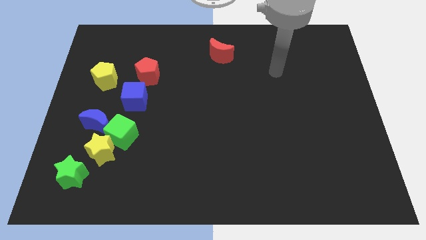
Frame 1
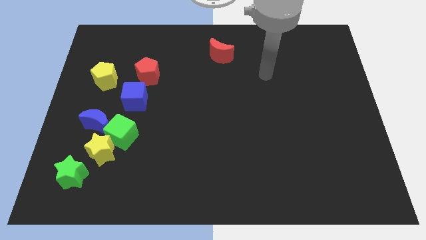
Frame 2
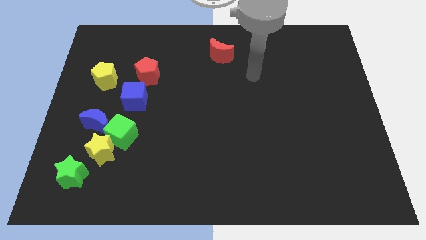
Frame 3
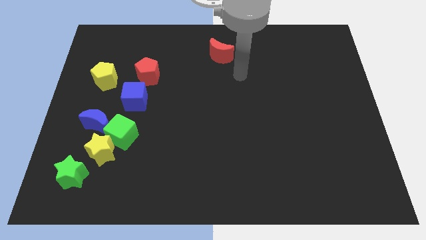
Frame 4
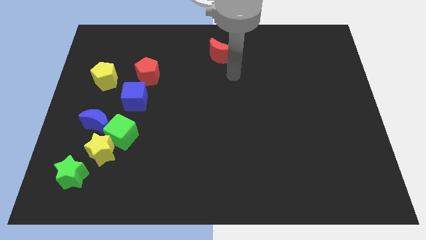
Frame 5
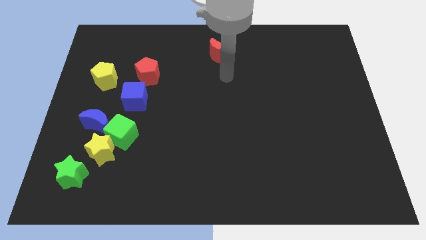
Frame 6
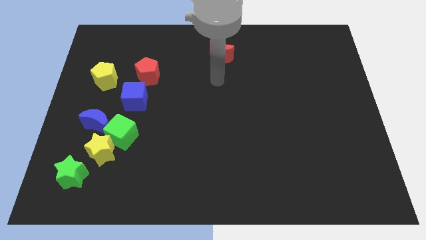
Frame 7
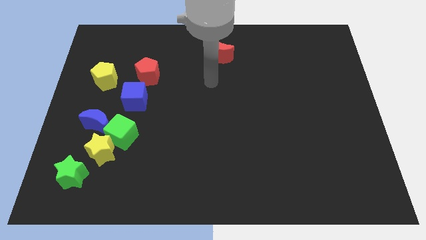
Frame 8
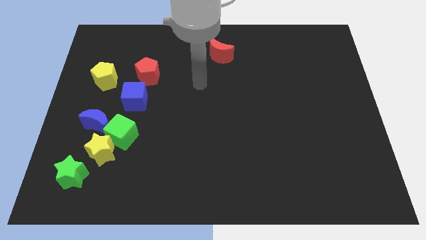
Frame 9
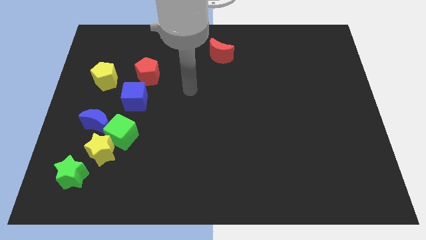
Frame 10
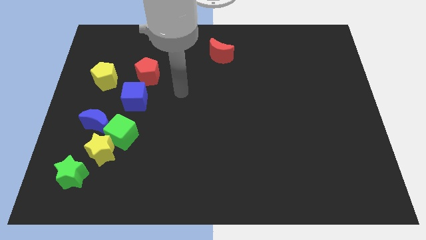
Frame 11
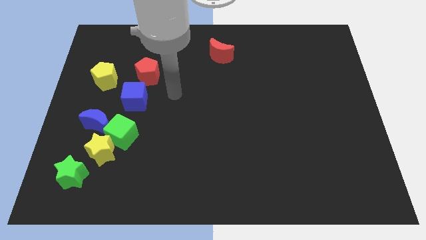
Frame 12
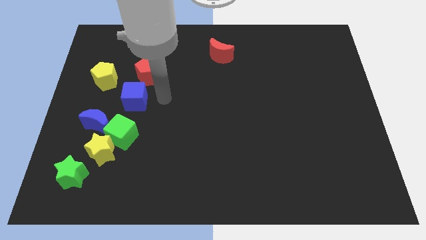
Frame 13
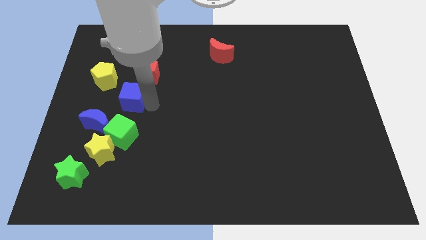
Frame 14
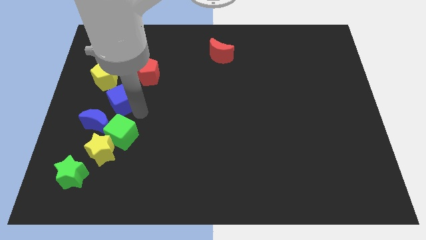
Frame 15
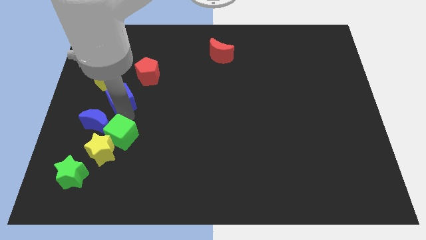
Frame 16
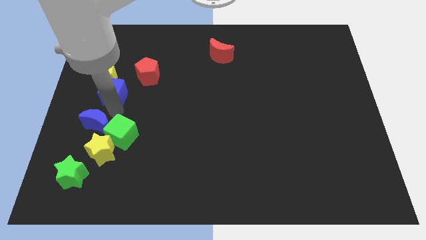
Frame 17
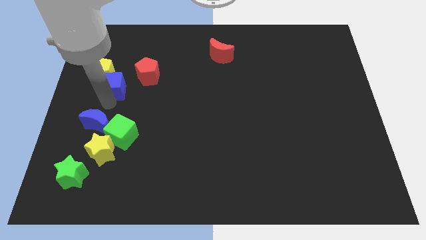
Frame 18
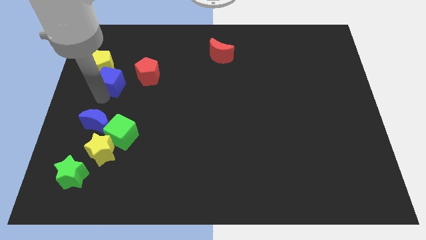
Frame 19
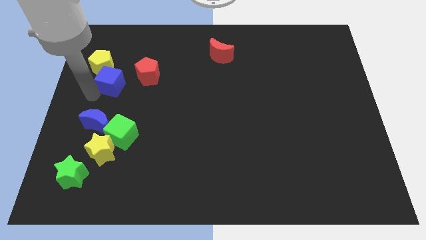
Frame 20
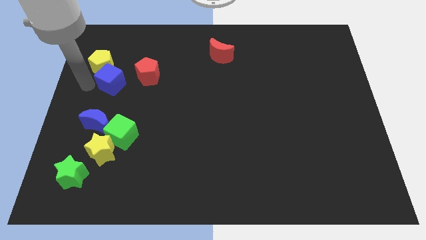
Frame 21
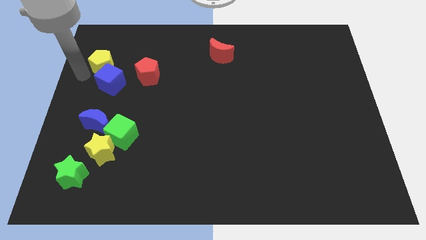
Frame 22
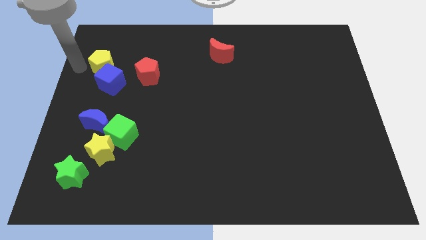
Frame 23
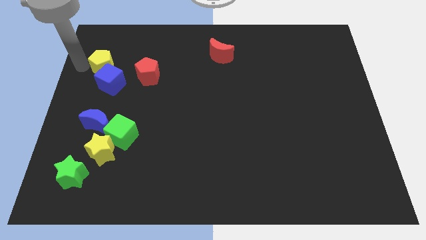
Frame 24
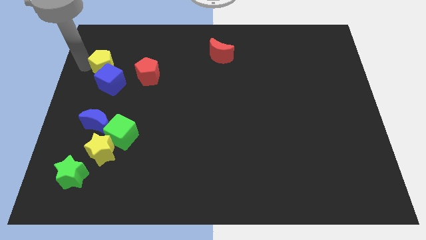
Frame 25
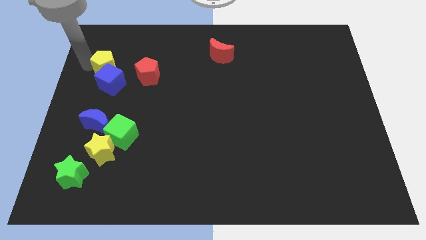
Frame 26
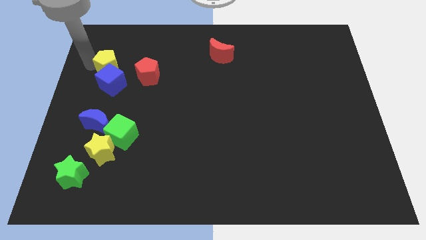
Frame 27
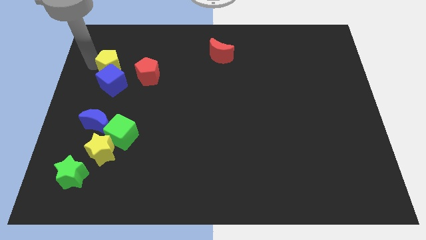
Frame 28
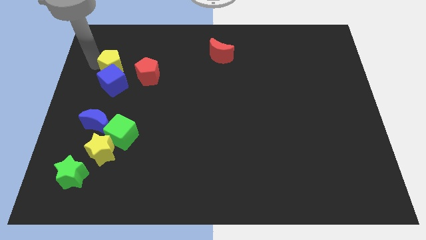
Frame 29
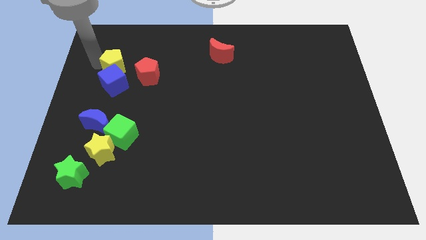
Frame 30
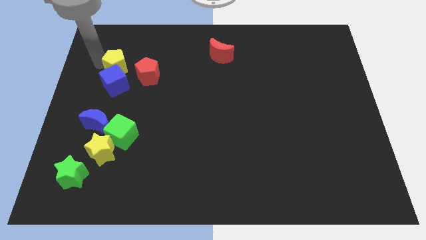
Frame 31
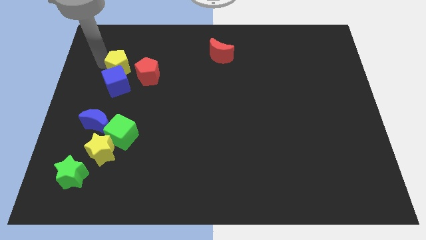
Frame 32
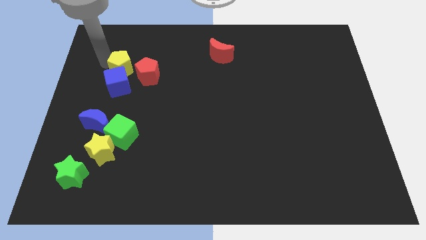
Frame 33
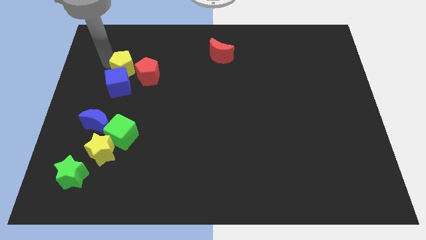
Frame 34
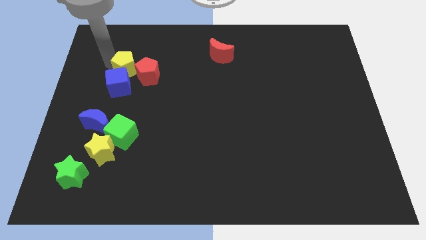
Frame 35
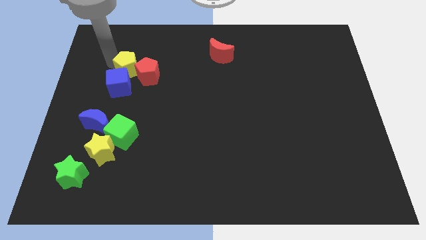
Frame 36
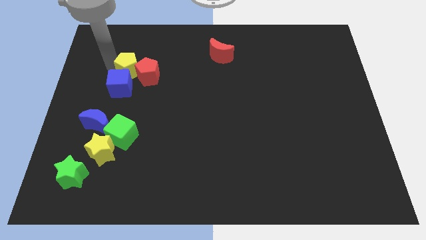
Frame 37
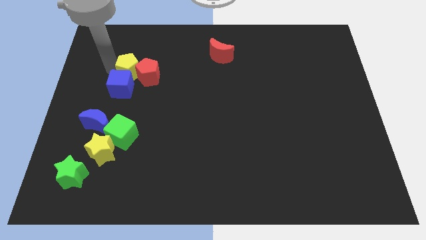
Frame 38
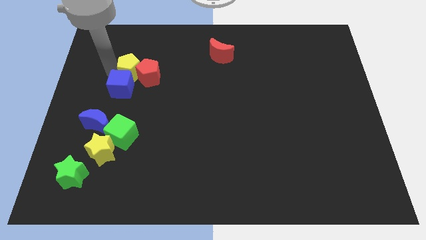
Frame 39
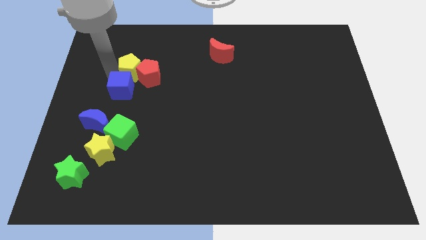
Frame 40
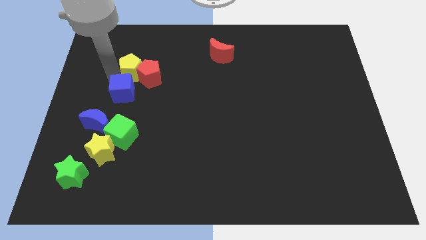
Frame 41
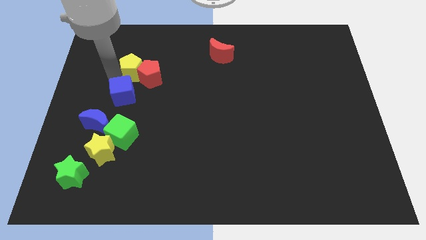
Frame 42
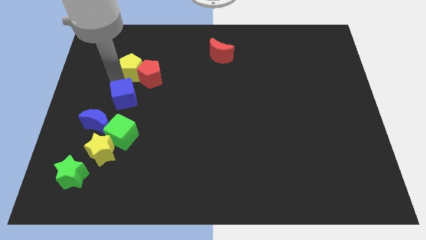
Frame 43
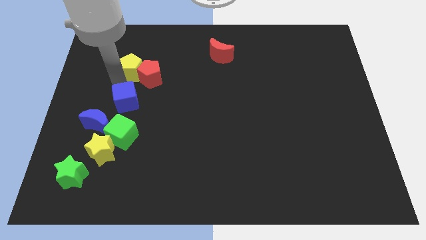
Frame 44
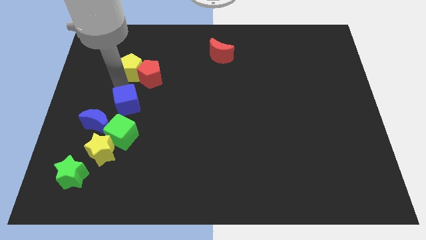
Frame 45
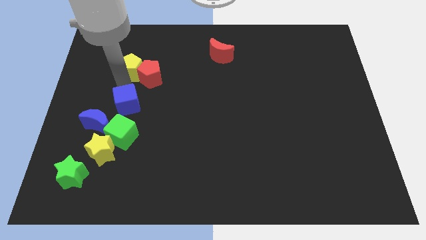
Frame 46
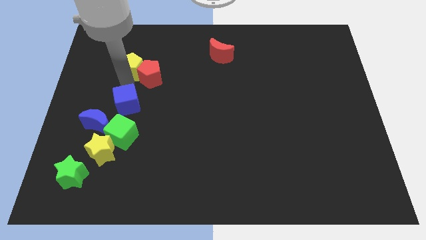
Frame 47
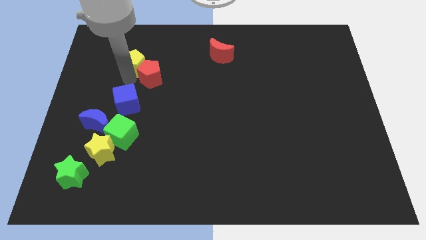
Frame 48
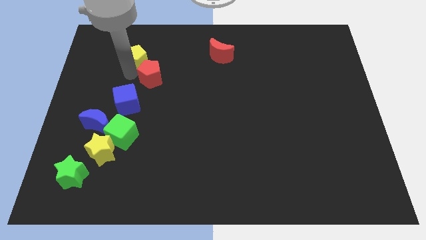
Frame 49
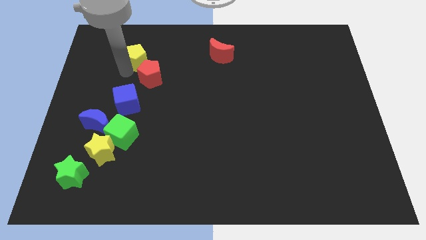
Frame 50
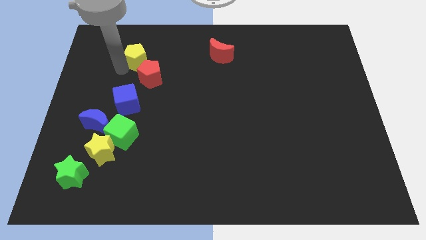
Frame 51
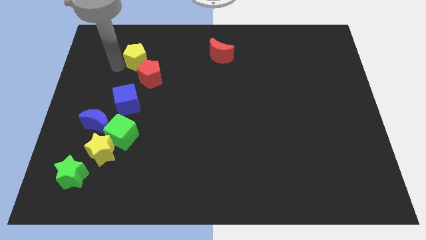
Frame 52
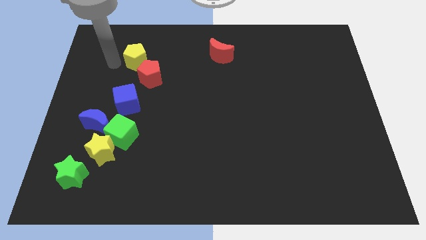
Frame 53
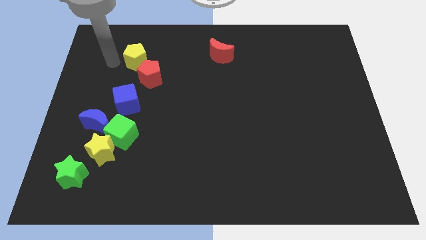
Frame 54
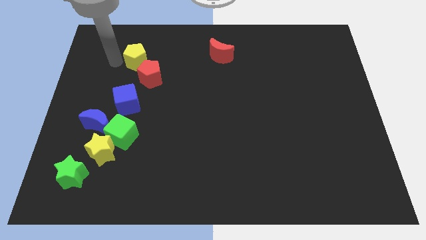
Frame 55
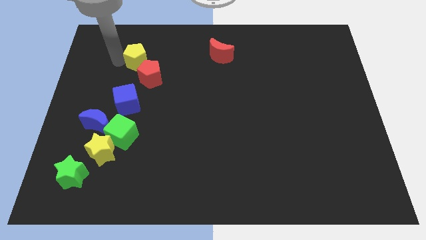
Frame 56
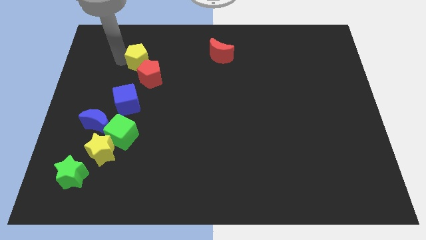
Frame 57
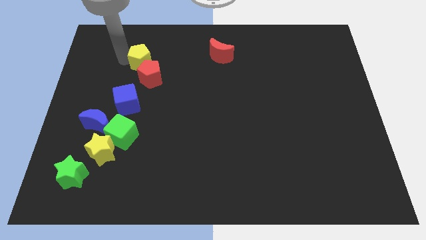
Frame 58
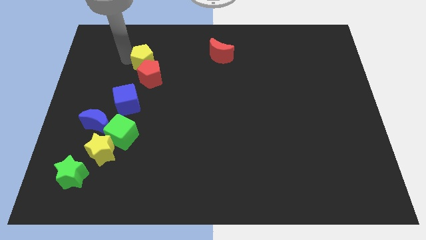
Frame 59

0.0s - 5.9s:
push the yellow pentagon right a little bit

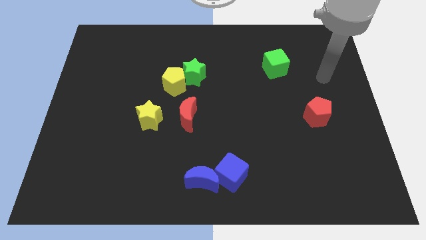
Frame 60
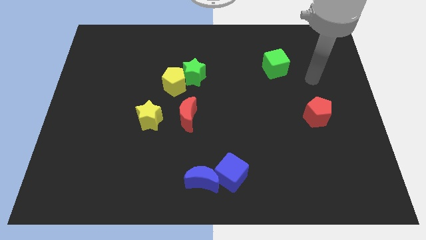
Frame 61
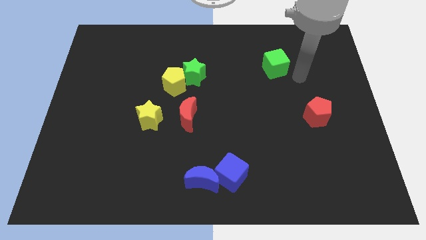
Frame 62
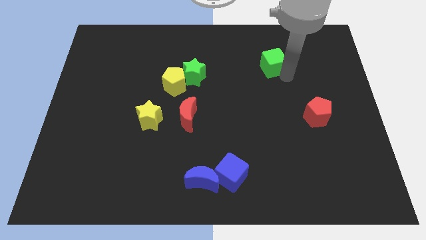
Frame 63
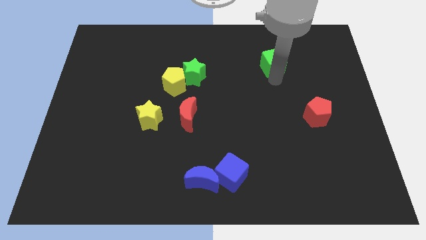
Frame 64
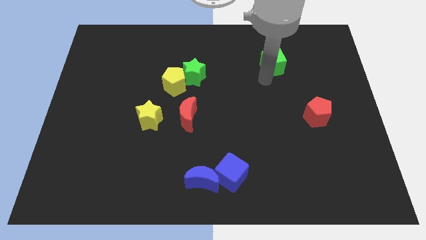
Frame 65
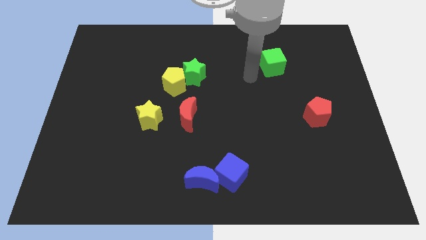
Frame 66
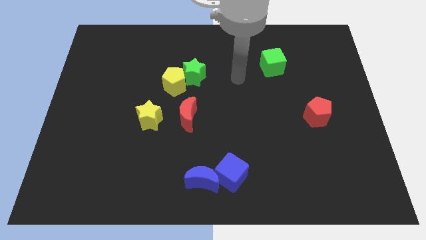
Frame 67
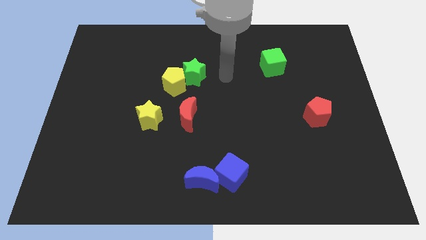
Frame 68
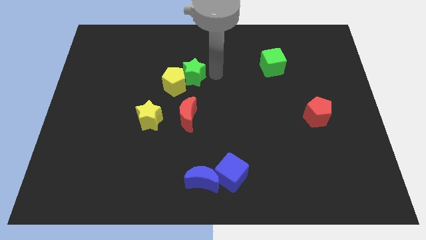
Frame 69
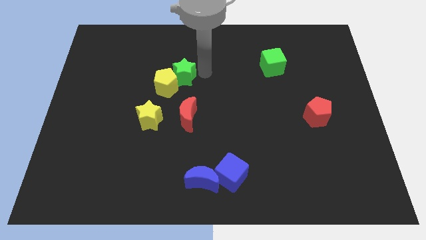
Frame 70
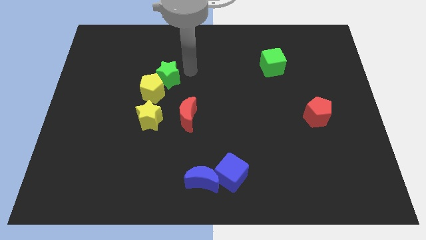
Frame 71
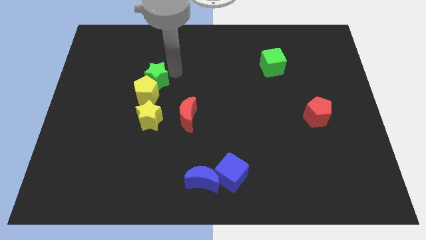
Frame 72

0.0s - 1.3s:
push the yellow pentagon a bit down and left diagonally

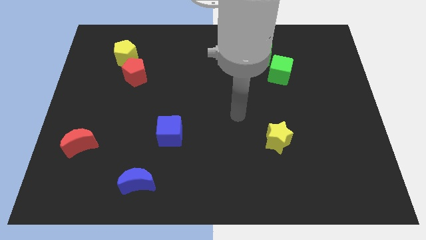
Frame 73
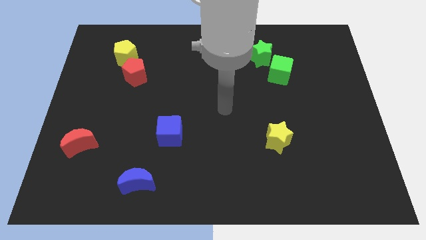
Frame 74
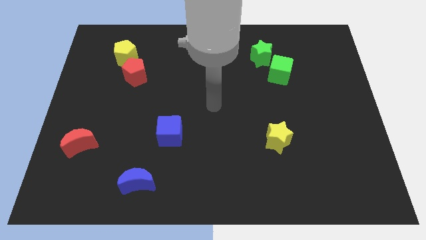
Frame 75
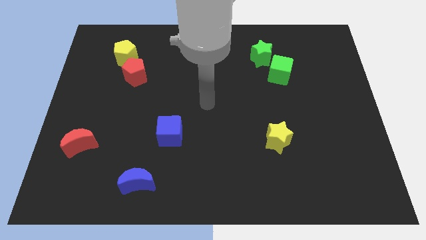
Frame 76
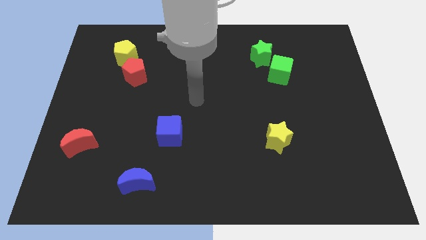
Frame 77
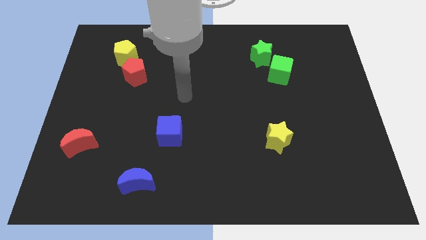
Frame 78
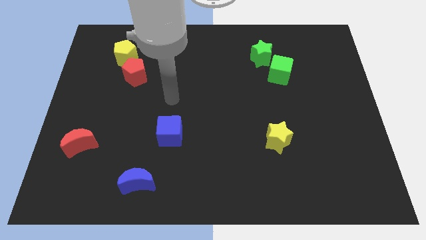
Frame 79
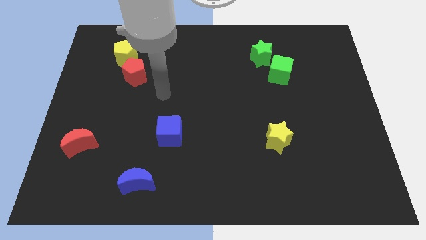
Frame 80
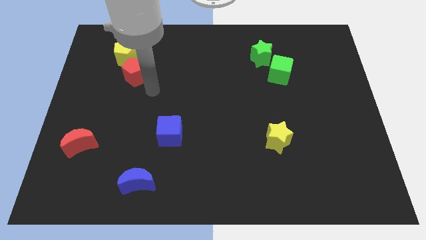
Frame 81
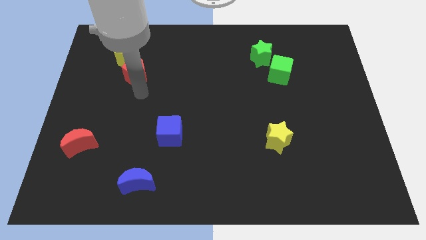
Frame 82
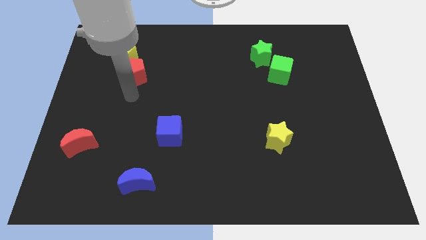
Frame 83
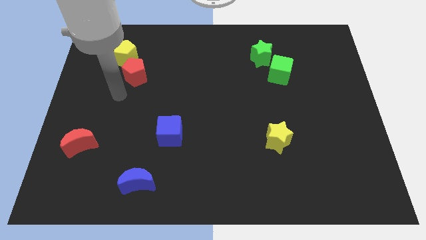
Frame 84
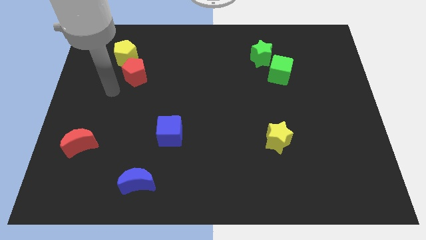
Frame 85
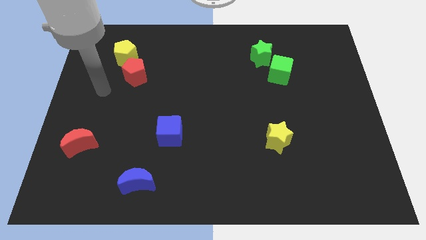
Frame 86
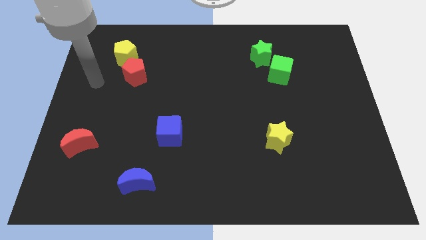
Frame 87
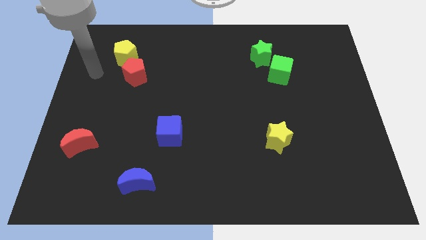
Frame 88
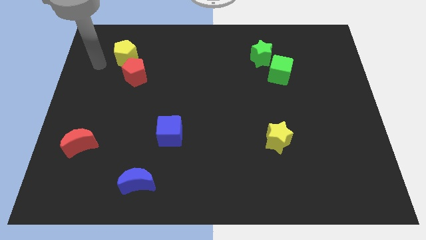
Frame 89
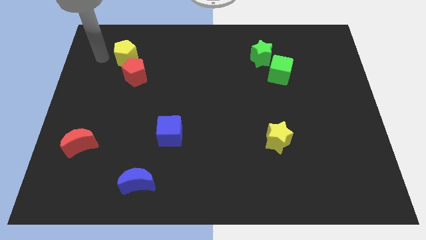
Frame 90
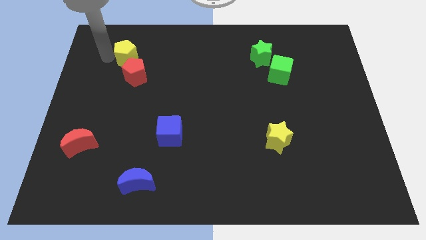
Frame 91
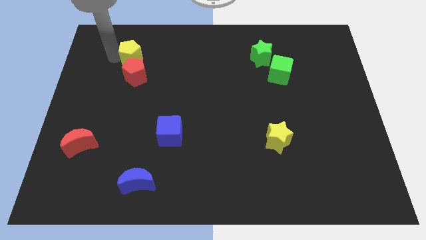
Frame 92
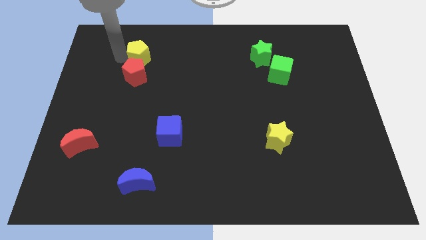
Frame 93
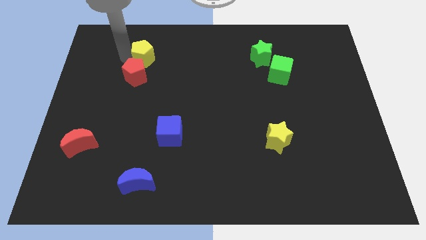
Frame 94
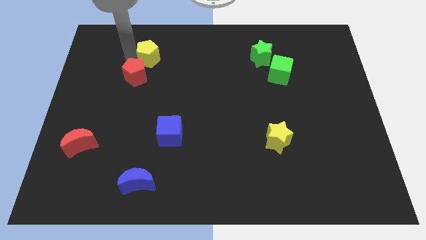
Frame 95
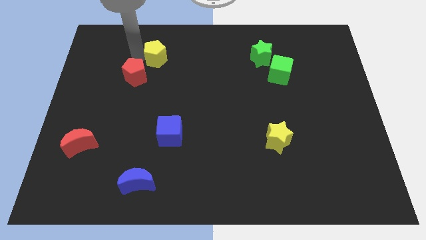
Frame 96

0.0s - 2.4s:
slightly push the yellow pentagon to the right
